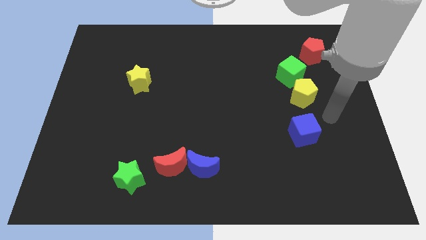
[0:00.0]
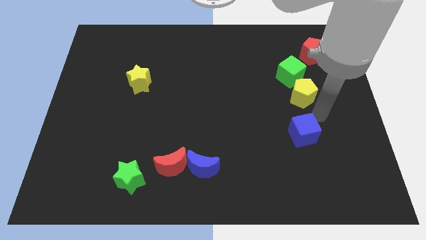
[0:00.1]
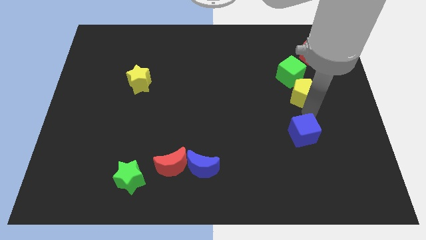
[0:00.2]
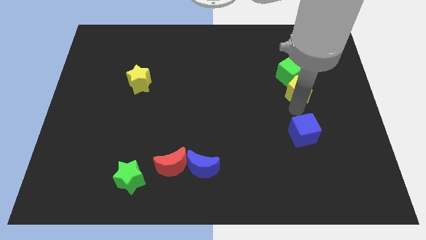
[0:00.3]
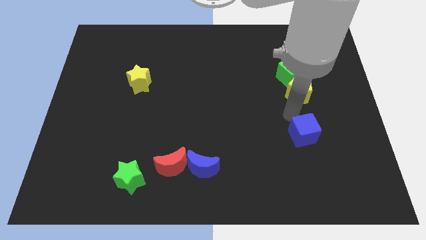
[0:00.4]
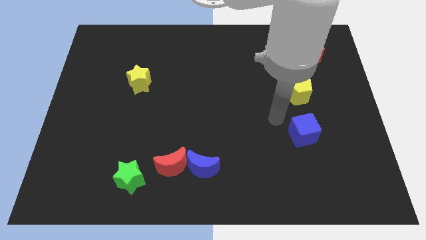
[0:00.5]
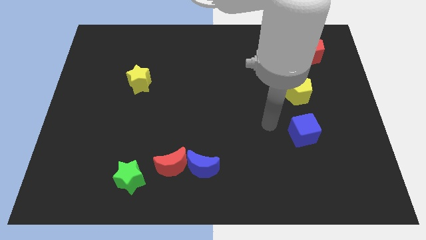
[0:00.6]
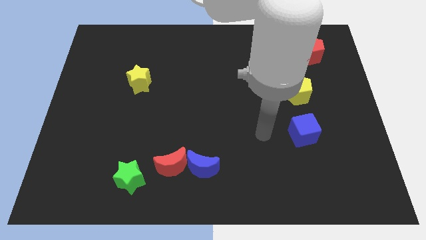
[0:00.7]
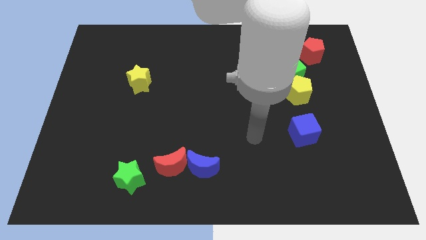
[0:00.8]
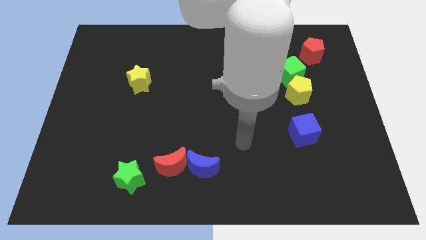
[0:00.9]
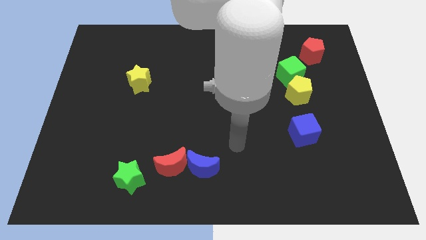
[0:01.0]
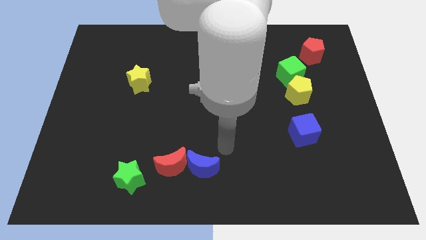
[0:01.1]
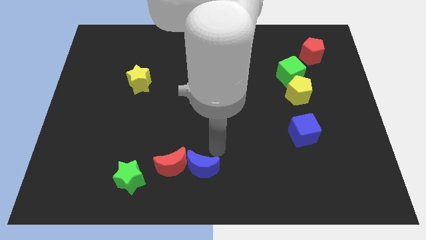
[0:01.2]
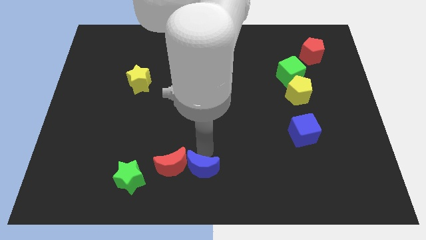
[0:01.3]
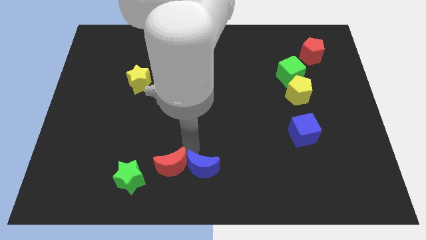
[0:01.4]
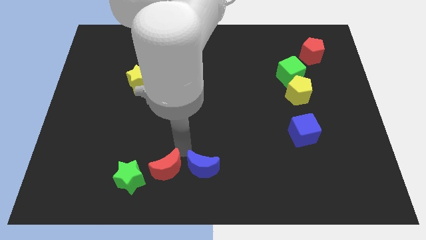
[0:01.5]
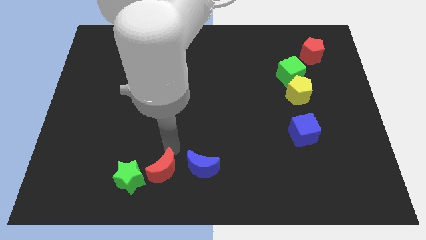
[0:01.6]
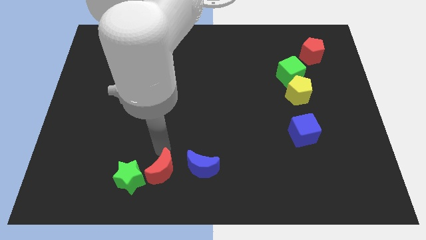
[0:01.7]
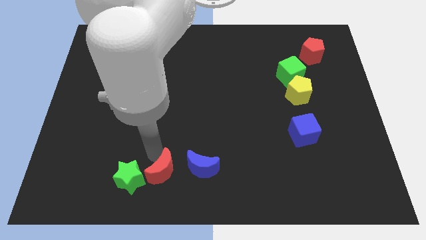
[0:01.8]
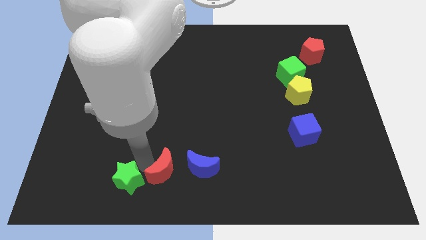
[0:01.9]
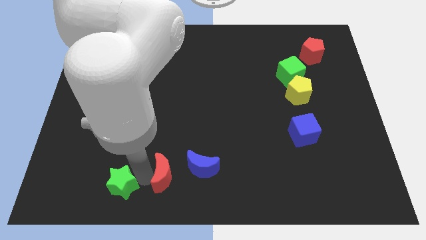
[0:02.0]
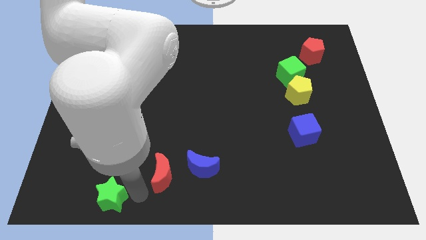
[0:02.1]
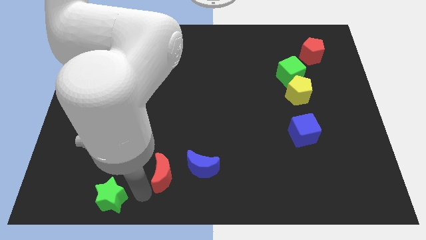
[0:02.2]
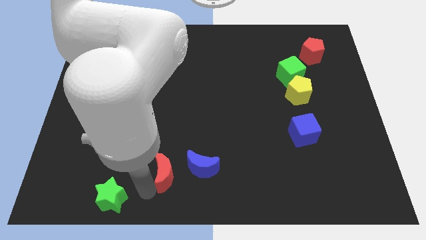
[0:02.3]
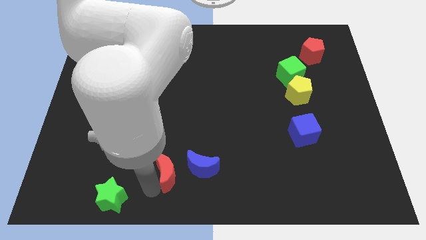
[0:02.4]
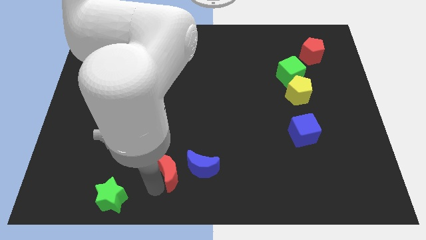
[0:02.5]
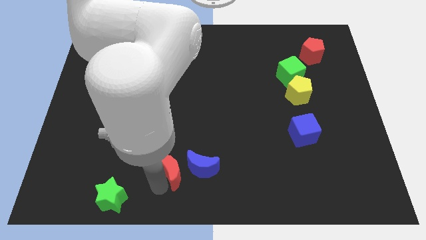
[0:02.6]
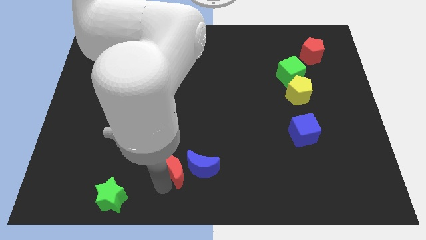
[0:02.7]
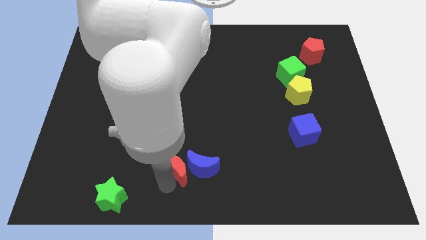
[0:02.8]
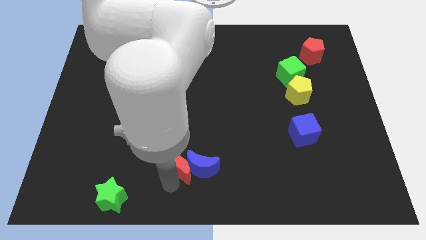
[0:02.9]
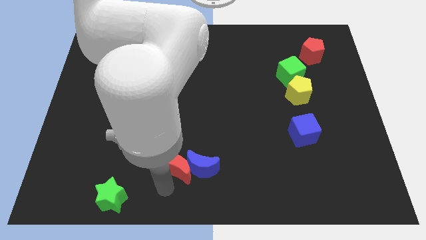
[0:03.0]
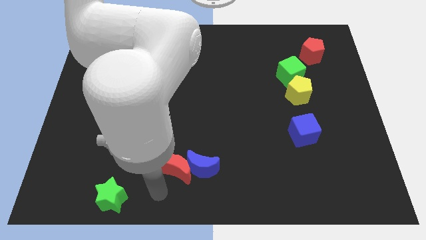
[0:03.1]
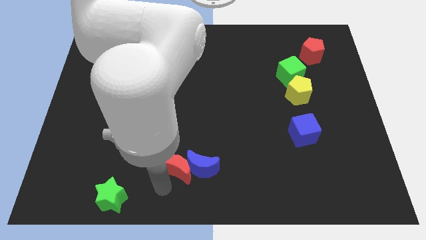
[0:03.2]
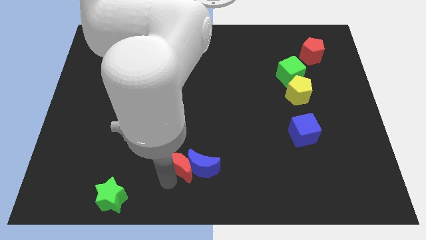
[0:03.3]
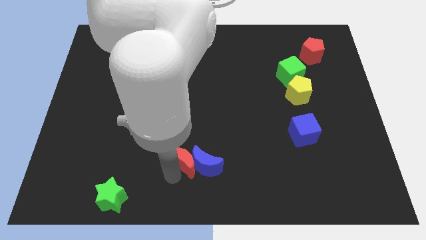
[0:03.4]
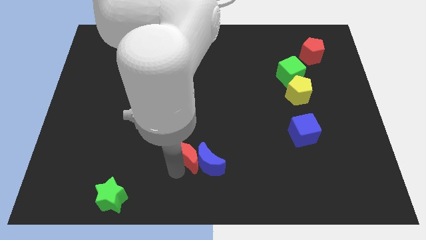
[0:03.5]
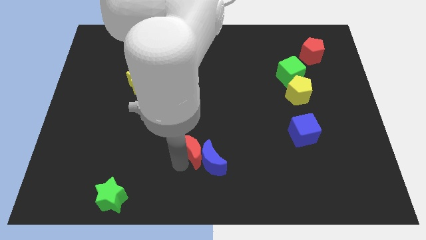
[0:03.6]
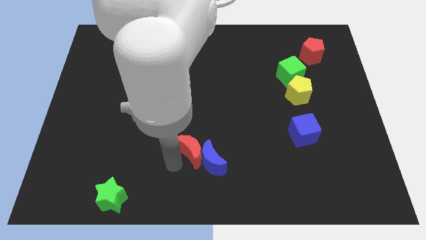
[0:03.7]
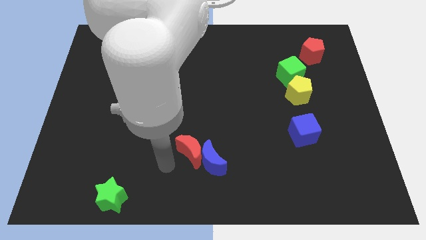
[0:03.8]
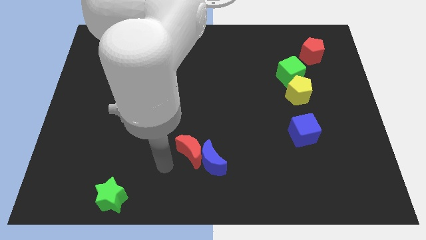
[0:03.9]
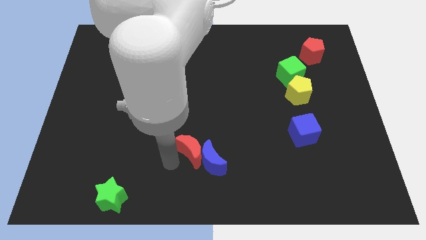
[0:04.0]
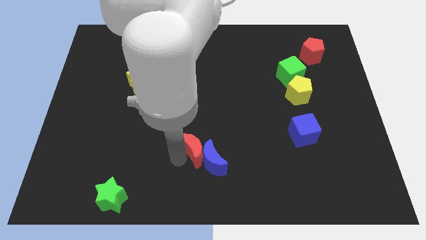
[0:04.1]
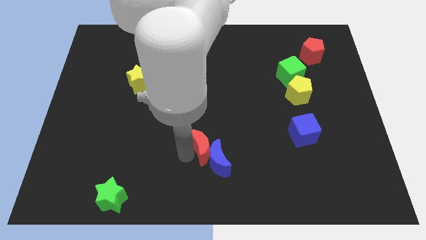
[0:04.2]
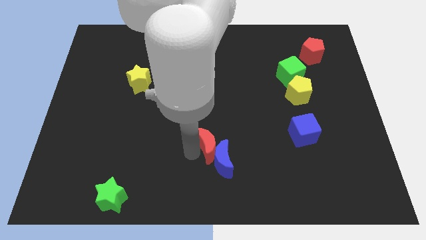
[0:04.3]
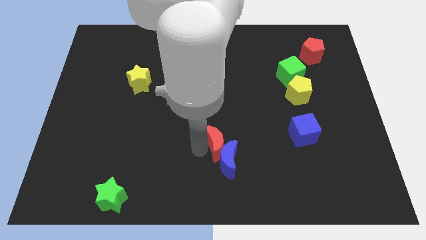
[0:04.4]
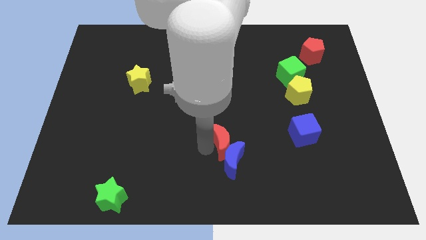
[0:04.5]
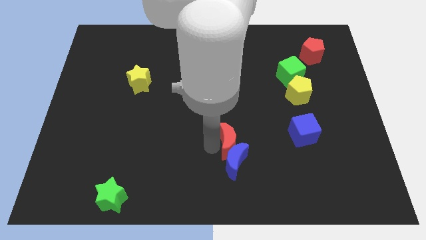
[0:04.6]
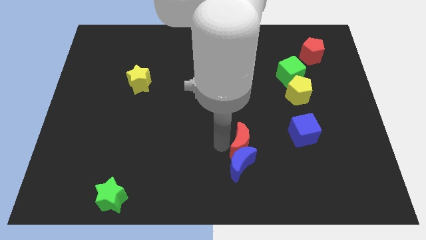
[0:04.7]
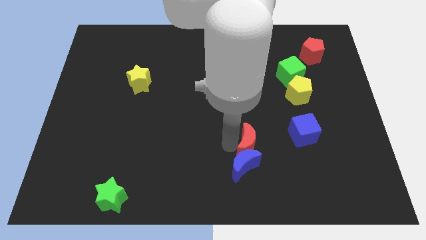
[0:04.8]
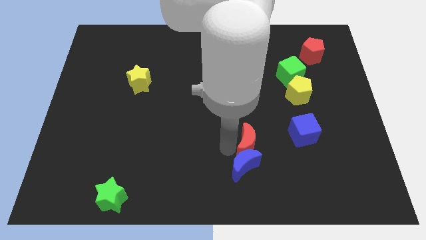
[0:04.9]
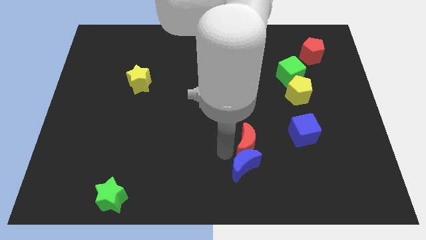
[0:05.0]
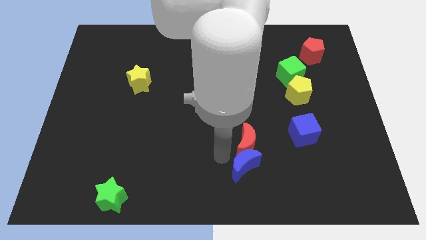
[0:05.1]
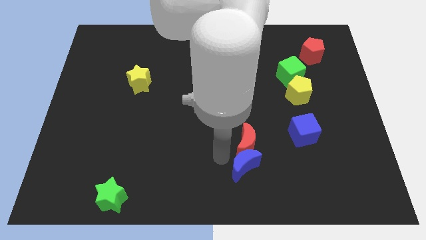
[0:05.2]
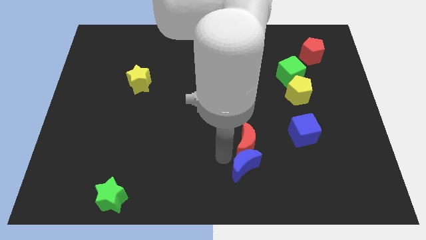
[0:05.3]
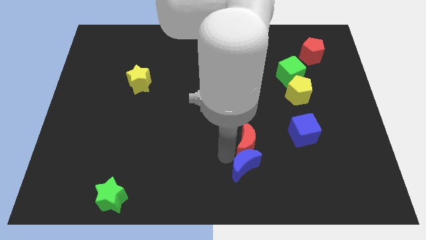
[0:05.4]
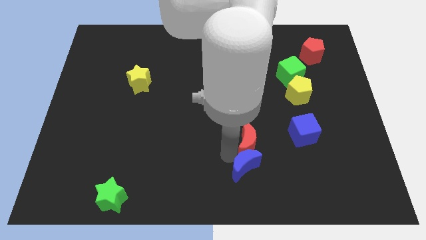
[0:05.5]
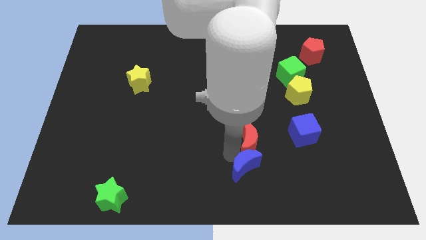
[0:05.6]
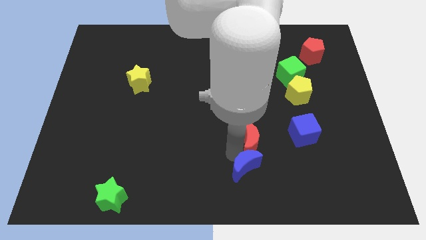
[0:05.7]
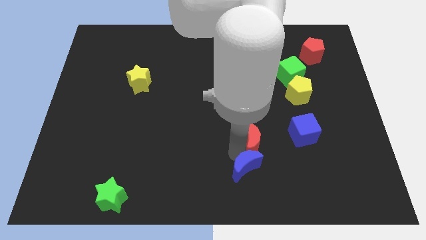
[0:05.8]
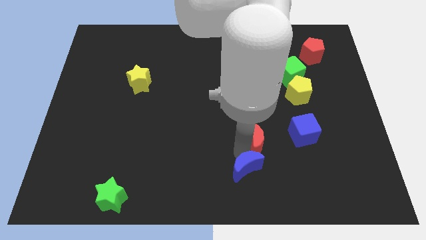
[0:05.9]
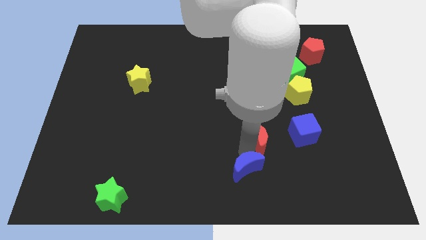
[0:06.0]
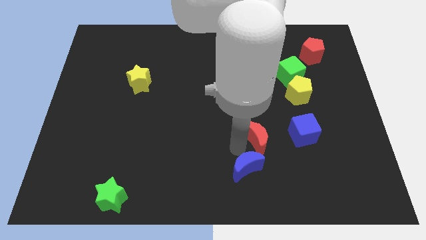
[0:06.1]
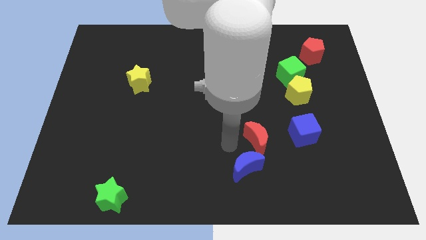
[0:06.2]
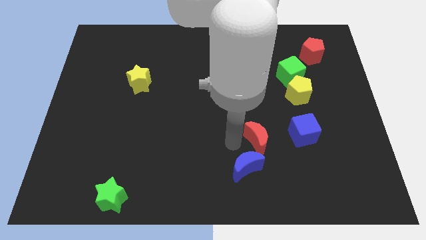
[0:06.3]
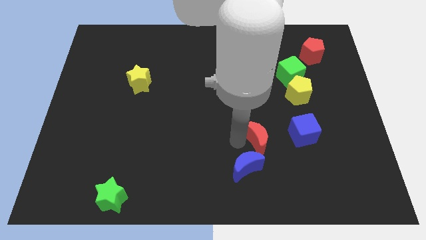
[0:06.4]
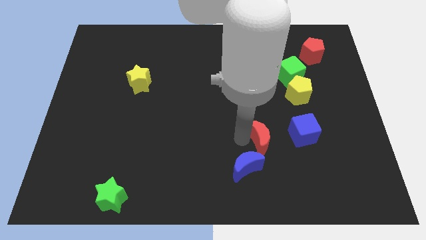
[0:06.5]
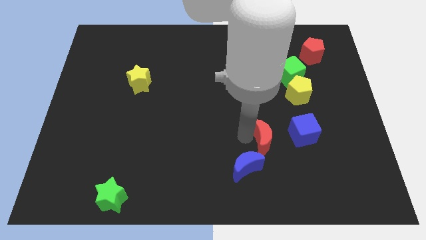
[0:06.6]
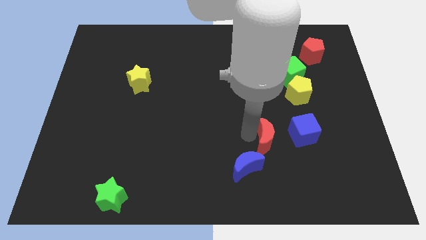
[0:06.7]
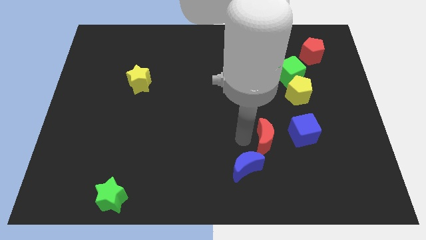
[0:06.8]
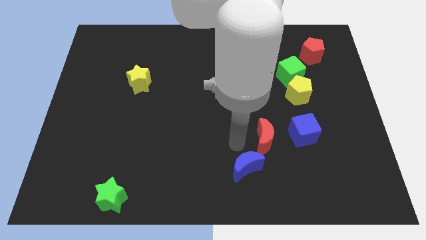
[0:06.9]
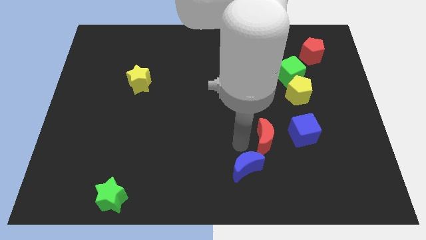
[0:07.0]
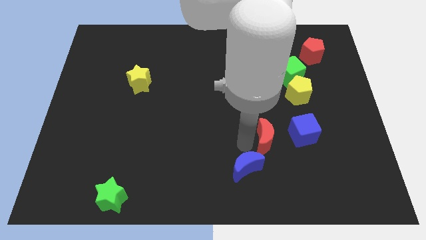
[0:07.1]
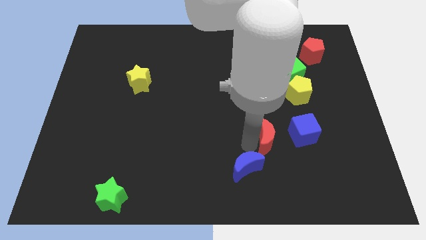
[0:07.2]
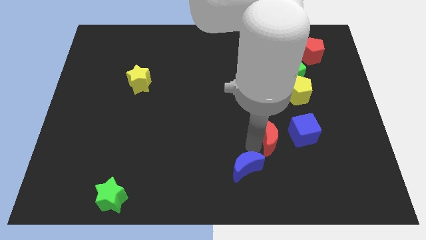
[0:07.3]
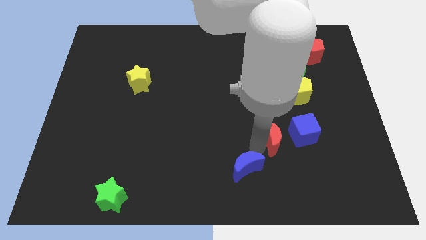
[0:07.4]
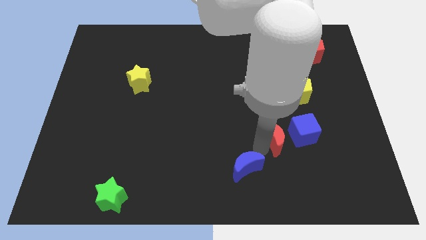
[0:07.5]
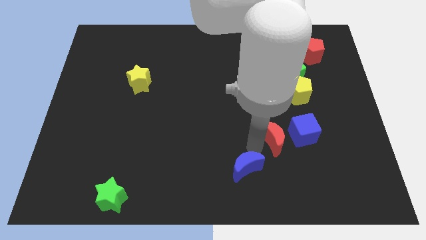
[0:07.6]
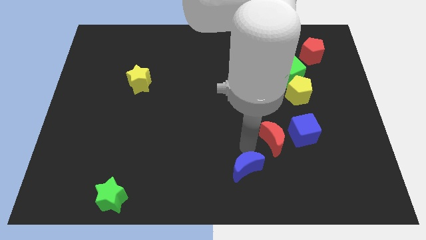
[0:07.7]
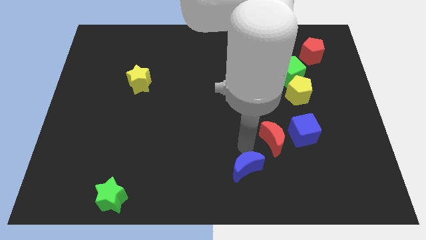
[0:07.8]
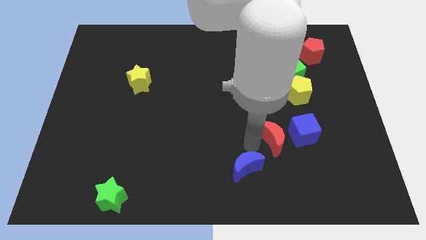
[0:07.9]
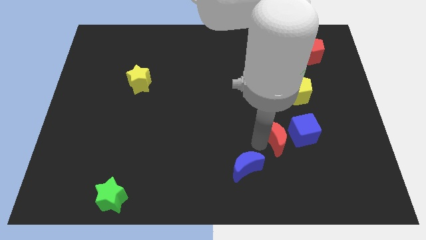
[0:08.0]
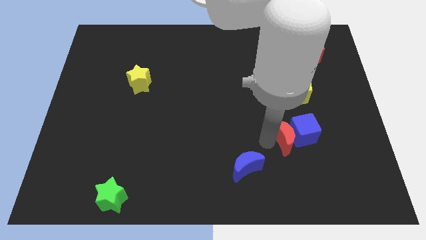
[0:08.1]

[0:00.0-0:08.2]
slide the red moon close to the blue cube
